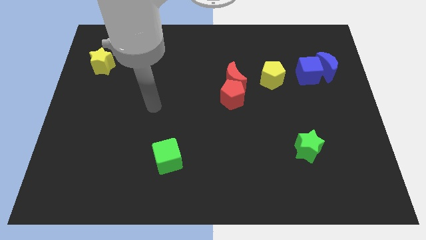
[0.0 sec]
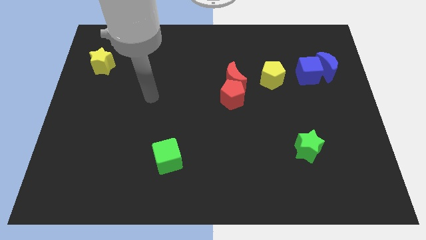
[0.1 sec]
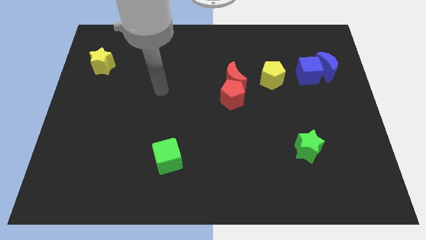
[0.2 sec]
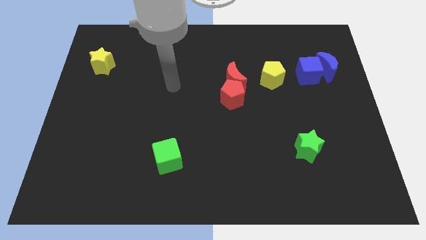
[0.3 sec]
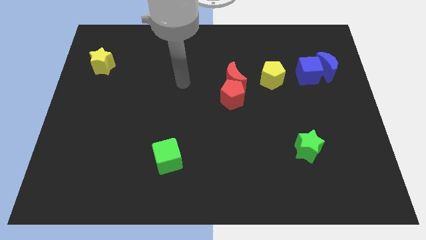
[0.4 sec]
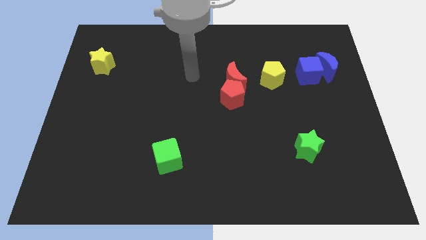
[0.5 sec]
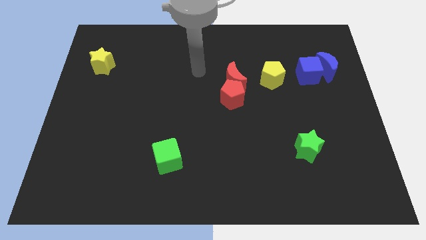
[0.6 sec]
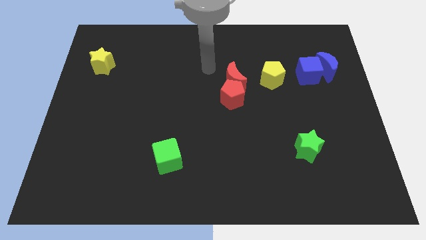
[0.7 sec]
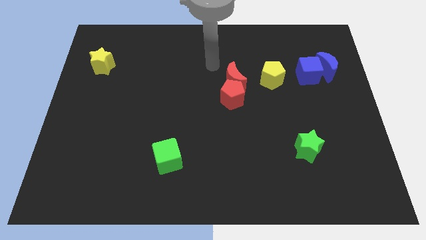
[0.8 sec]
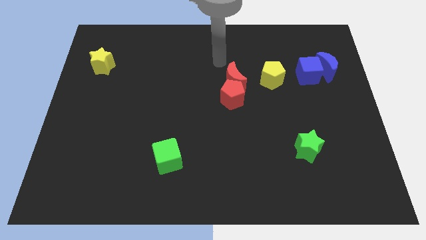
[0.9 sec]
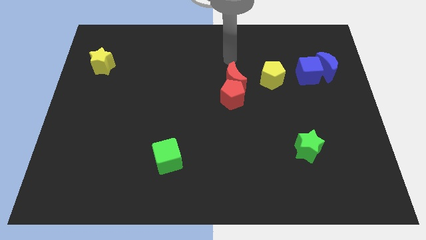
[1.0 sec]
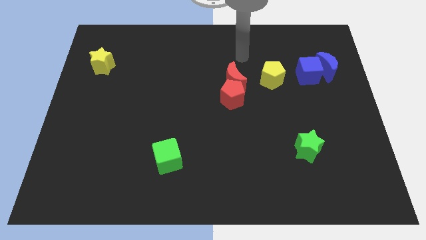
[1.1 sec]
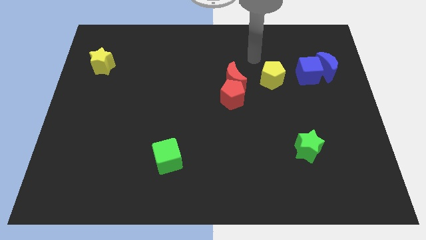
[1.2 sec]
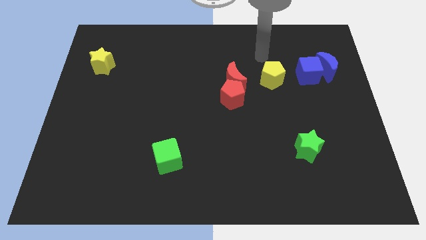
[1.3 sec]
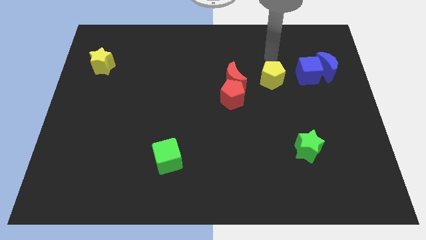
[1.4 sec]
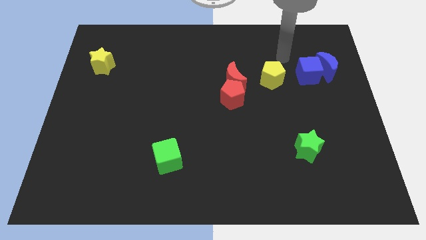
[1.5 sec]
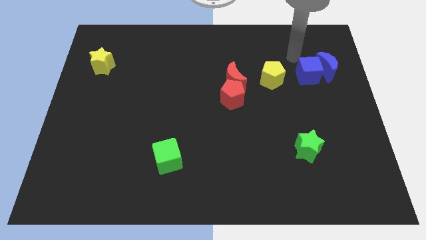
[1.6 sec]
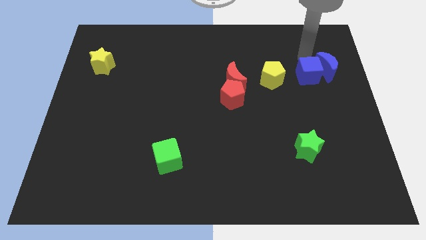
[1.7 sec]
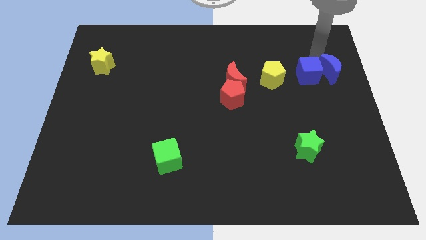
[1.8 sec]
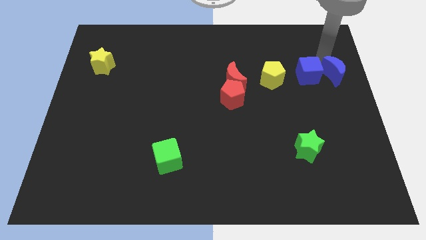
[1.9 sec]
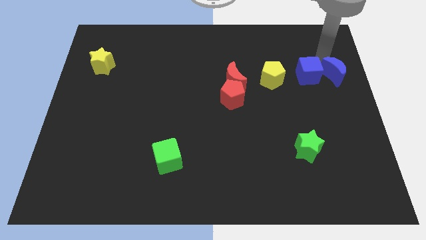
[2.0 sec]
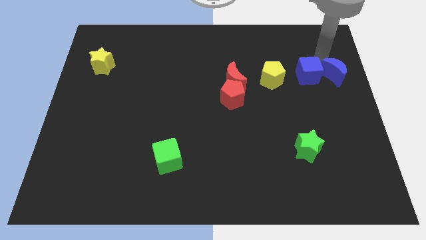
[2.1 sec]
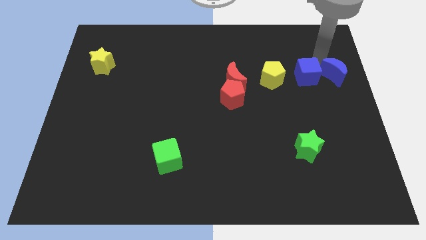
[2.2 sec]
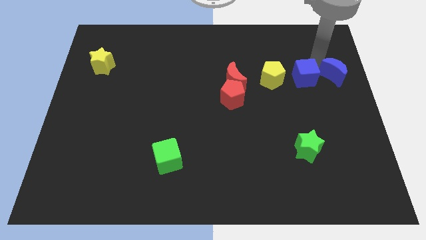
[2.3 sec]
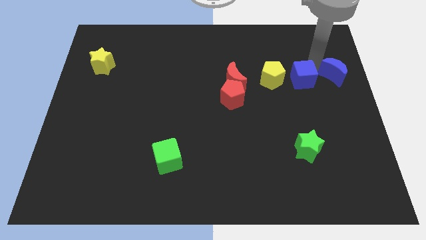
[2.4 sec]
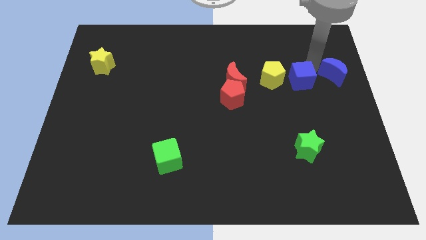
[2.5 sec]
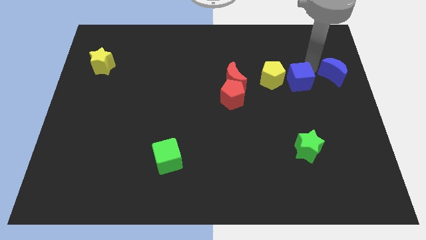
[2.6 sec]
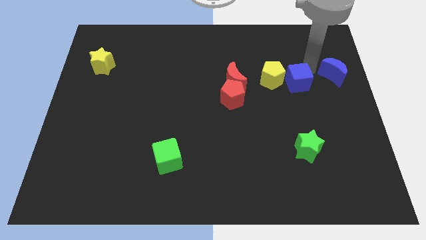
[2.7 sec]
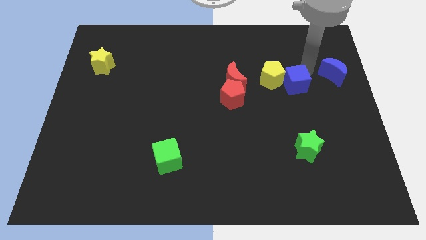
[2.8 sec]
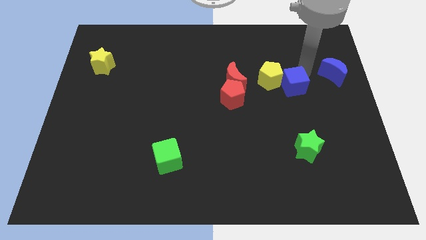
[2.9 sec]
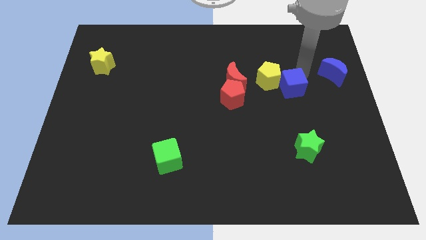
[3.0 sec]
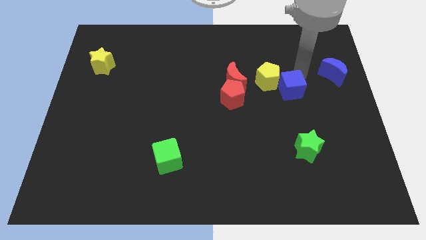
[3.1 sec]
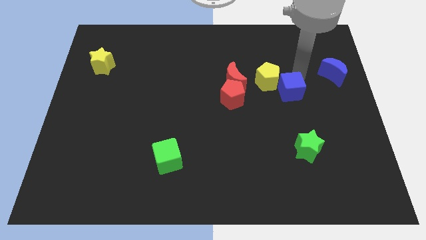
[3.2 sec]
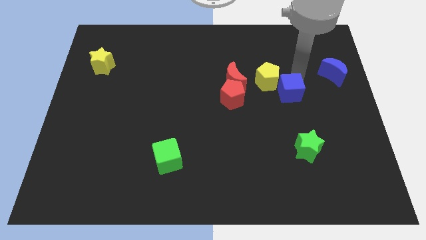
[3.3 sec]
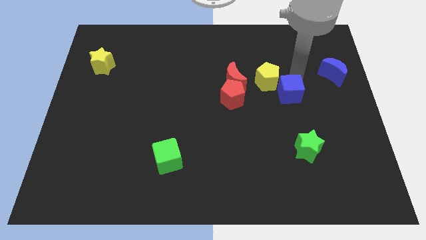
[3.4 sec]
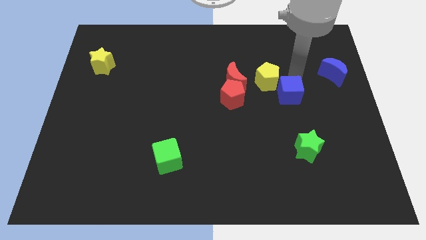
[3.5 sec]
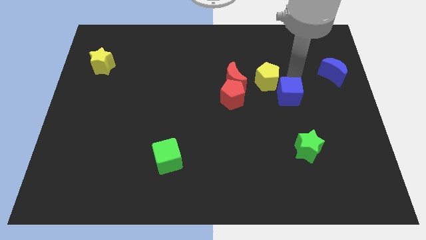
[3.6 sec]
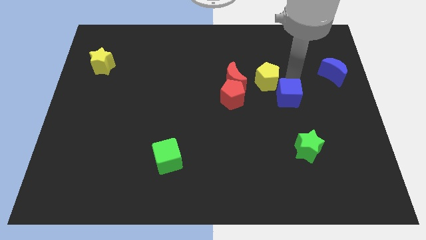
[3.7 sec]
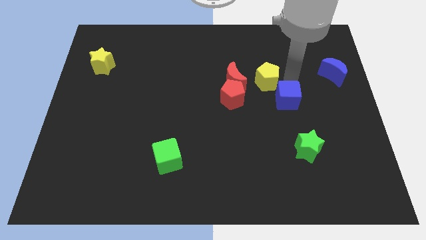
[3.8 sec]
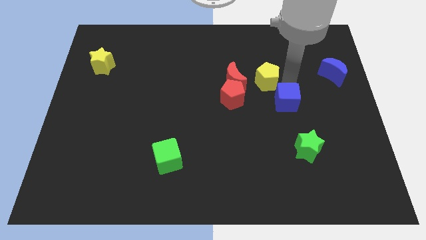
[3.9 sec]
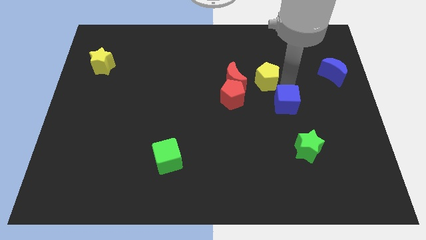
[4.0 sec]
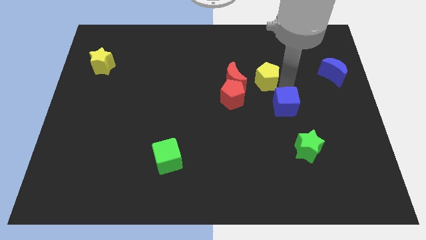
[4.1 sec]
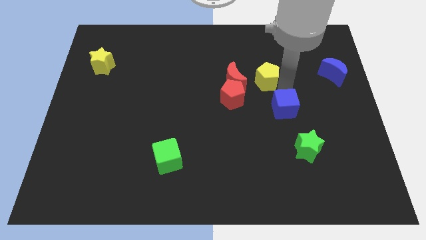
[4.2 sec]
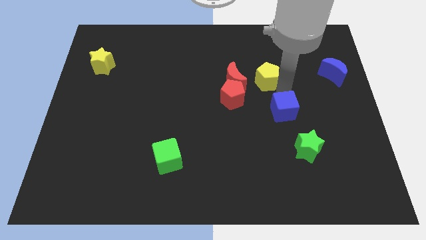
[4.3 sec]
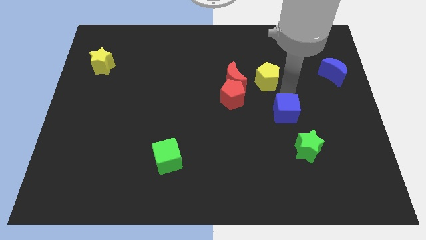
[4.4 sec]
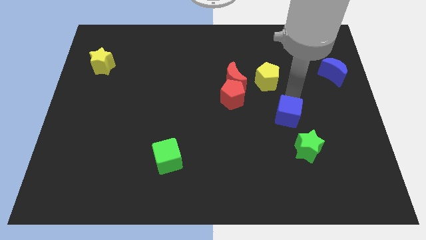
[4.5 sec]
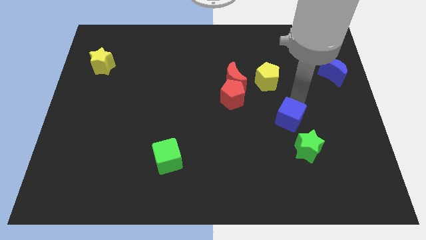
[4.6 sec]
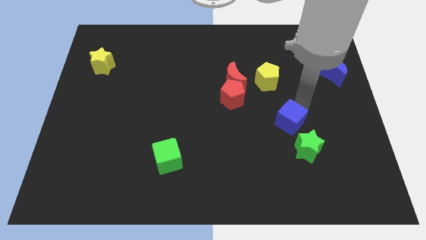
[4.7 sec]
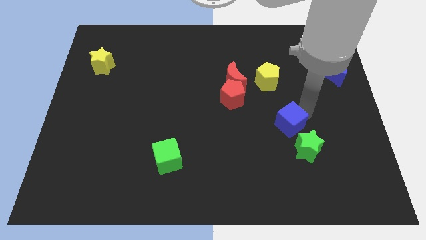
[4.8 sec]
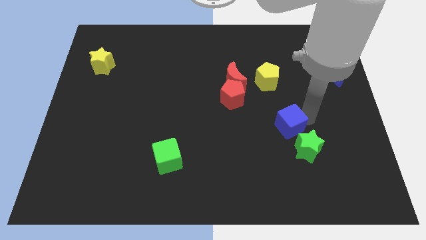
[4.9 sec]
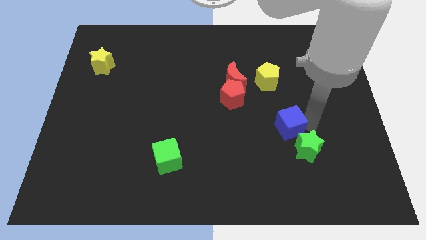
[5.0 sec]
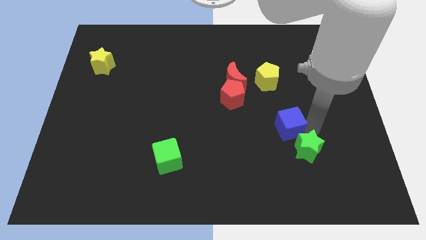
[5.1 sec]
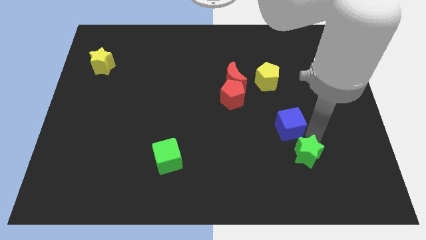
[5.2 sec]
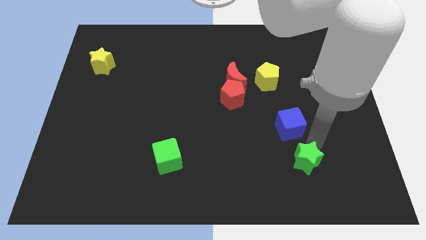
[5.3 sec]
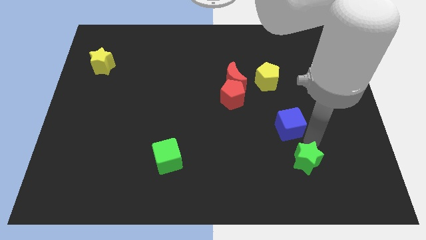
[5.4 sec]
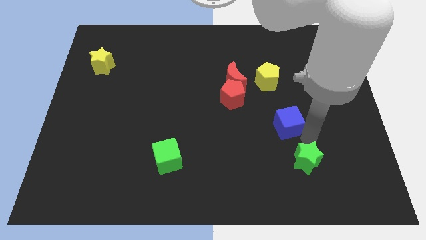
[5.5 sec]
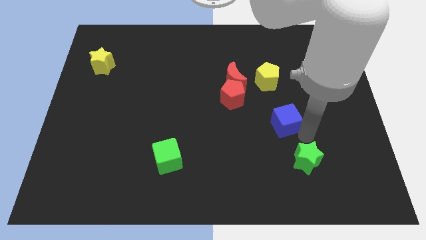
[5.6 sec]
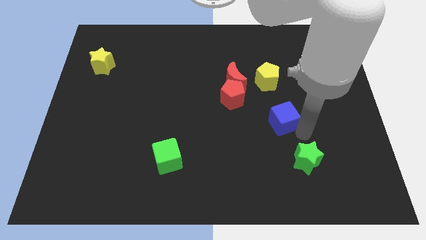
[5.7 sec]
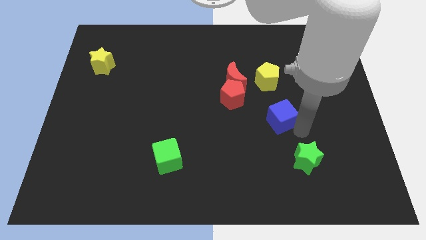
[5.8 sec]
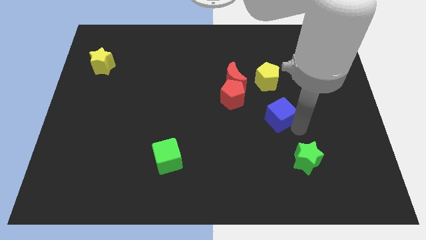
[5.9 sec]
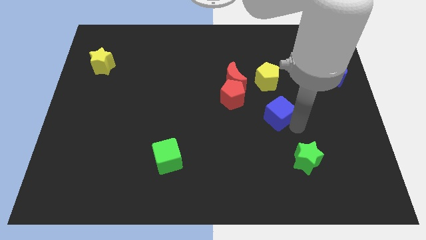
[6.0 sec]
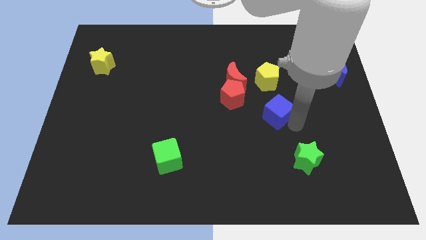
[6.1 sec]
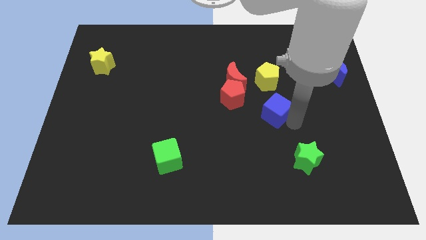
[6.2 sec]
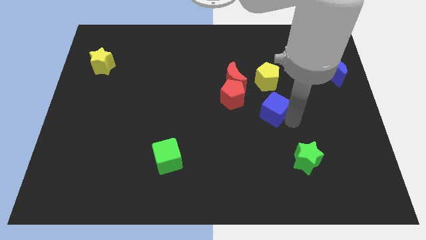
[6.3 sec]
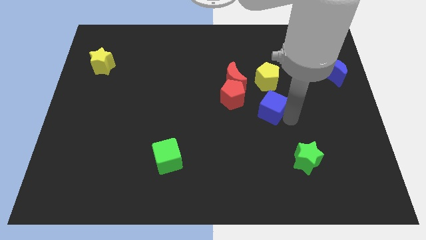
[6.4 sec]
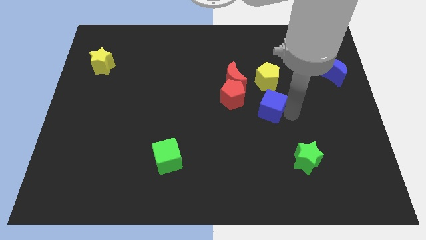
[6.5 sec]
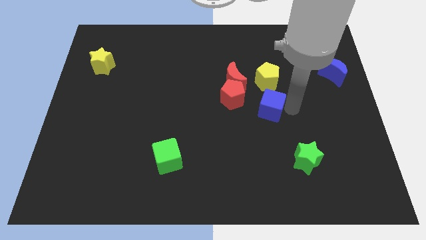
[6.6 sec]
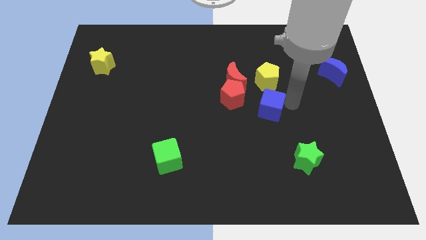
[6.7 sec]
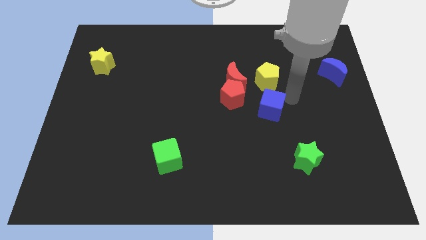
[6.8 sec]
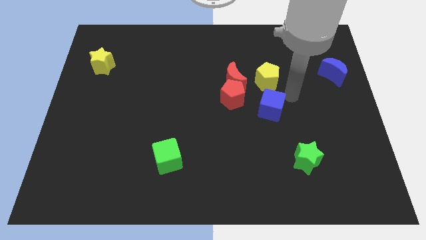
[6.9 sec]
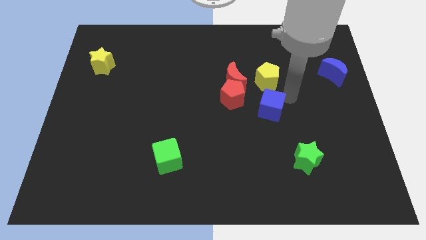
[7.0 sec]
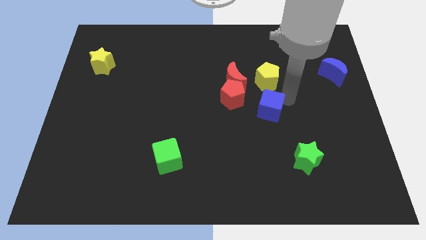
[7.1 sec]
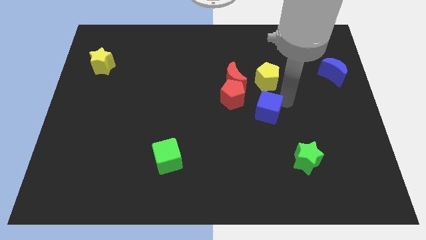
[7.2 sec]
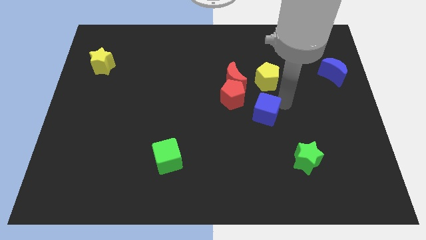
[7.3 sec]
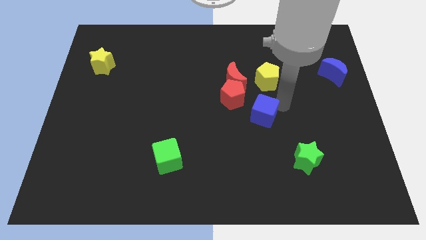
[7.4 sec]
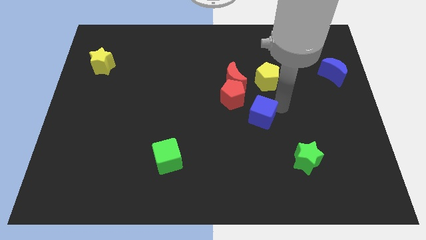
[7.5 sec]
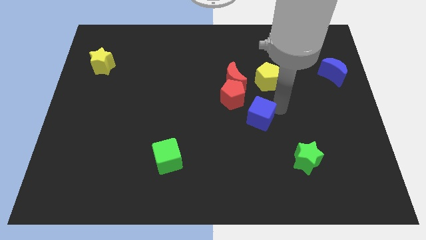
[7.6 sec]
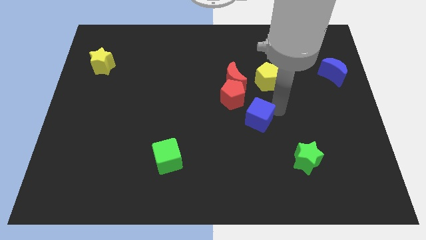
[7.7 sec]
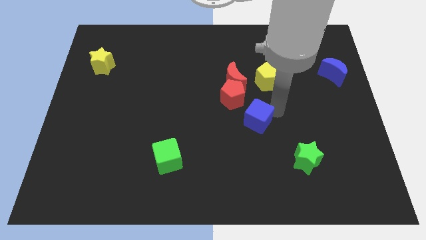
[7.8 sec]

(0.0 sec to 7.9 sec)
push the blue cube down and to the left

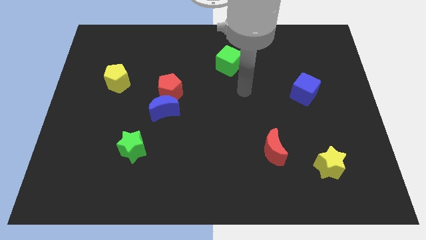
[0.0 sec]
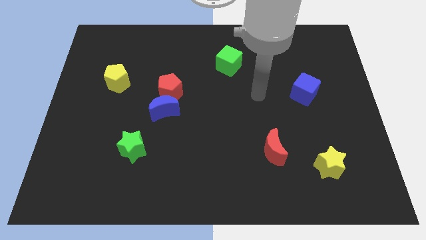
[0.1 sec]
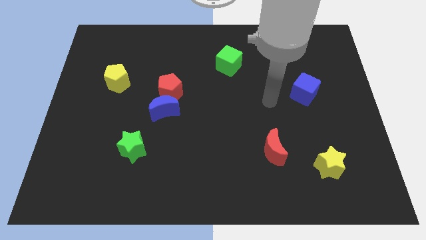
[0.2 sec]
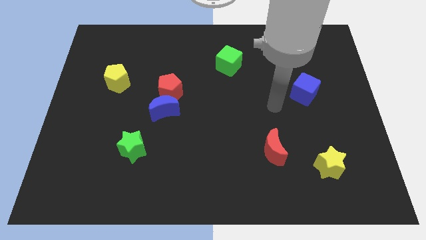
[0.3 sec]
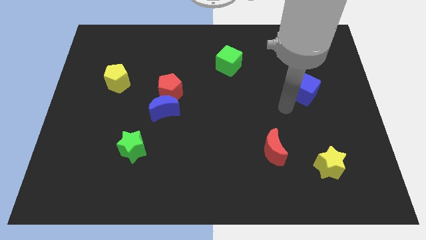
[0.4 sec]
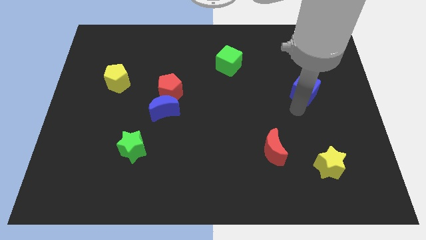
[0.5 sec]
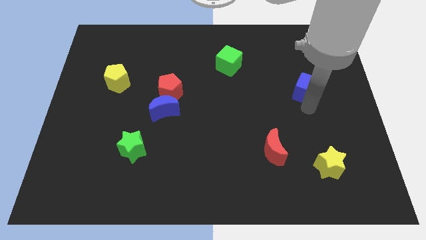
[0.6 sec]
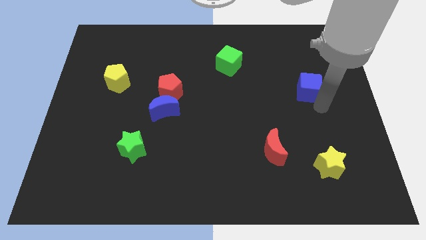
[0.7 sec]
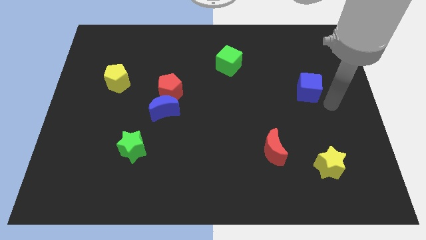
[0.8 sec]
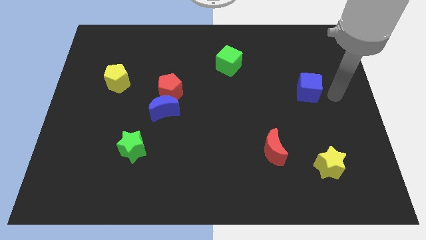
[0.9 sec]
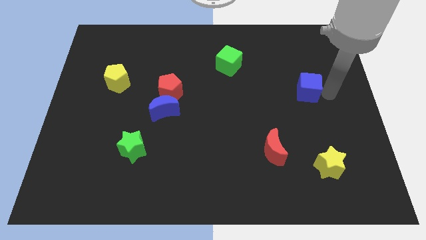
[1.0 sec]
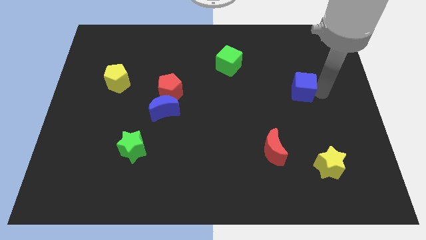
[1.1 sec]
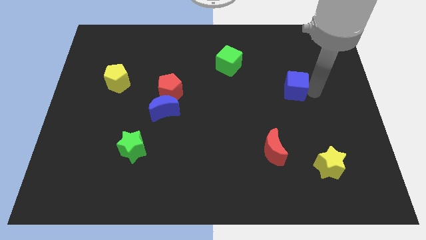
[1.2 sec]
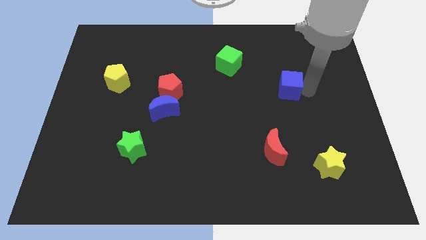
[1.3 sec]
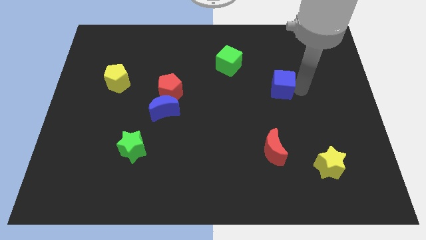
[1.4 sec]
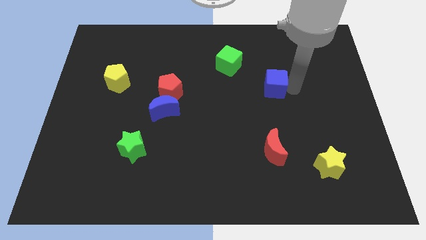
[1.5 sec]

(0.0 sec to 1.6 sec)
slide the blue cube to the left slightly
